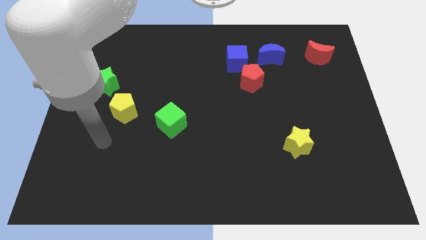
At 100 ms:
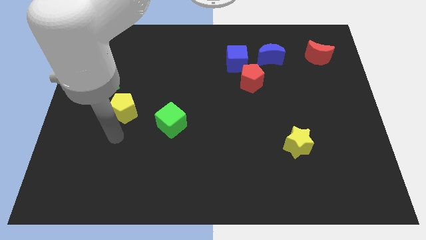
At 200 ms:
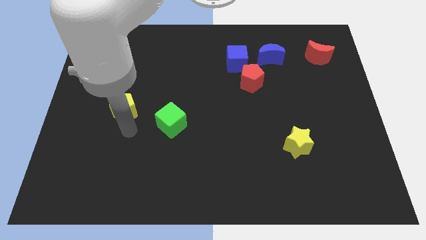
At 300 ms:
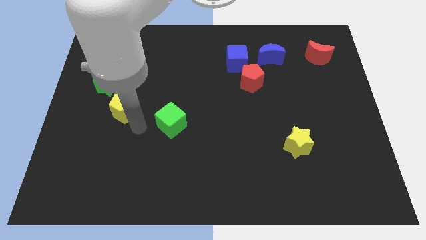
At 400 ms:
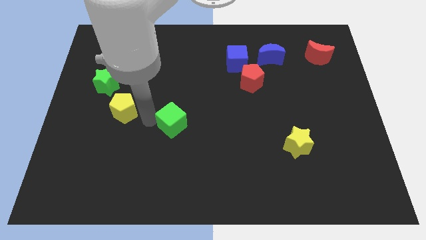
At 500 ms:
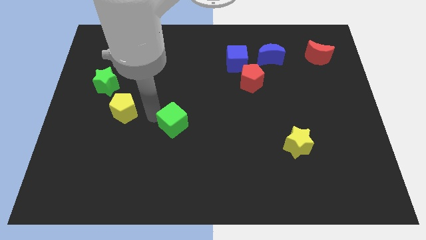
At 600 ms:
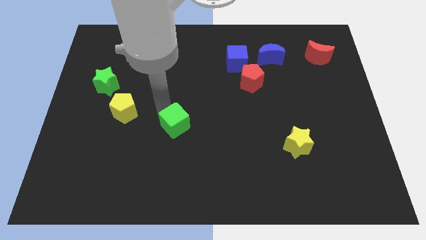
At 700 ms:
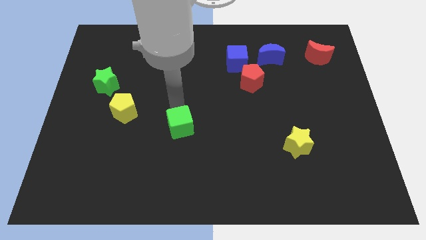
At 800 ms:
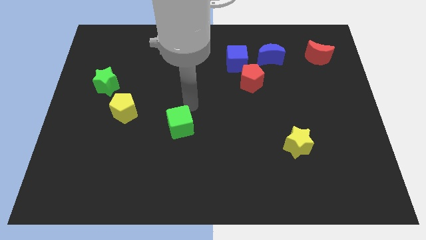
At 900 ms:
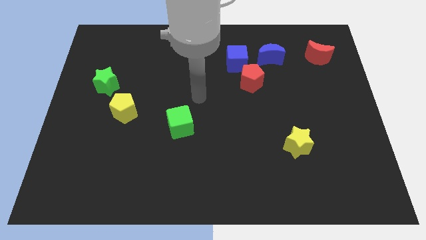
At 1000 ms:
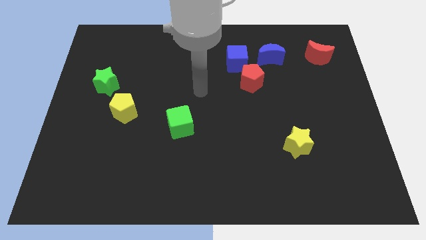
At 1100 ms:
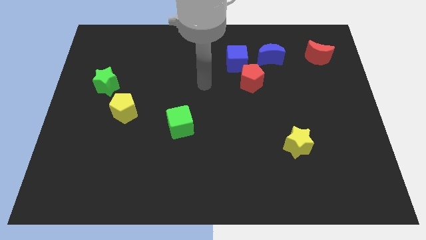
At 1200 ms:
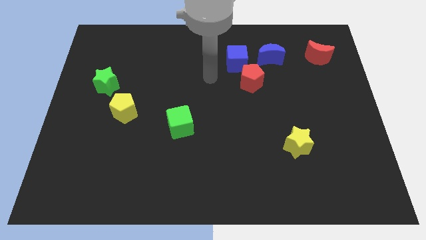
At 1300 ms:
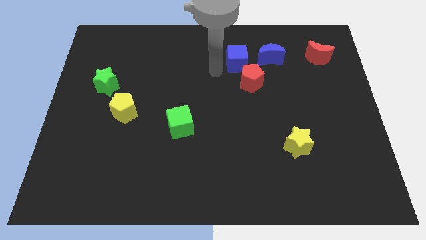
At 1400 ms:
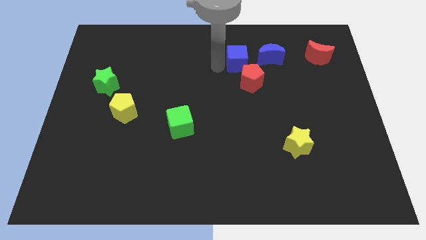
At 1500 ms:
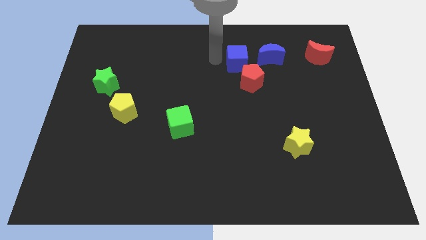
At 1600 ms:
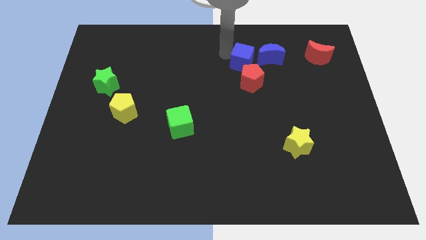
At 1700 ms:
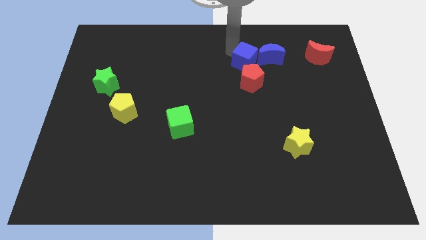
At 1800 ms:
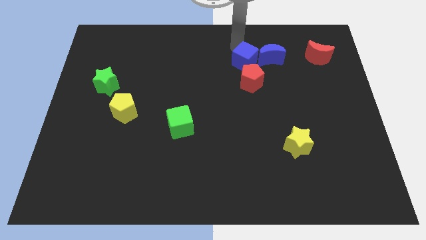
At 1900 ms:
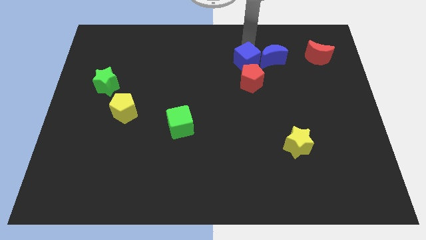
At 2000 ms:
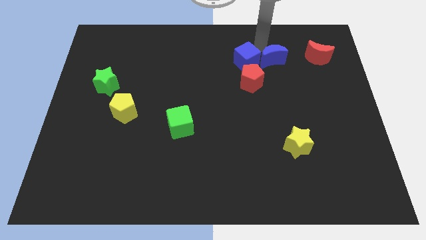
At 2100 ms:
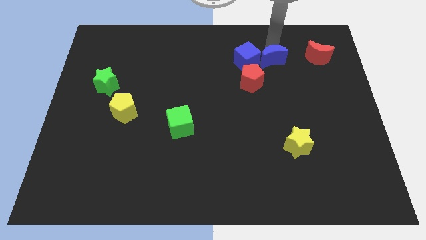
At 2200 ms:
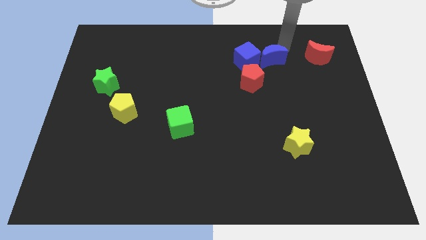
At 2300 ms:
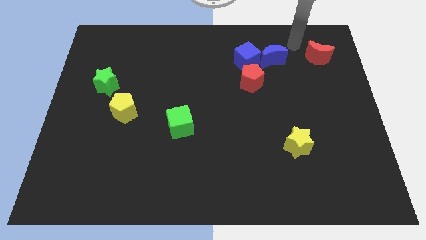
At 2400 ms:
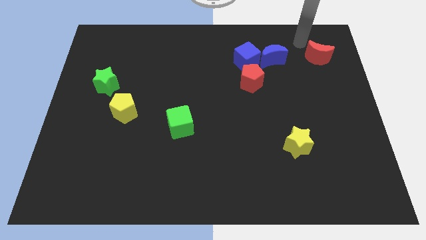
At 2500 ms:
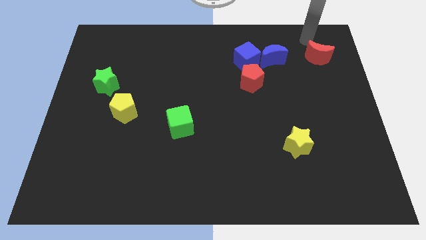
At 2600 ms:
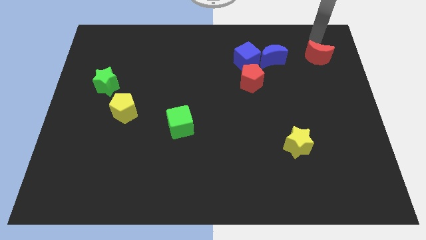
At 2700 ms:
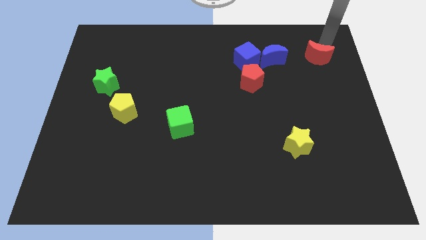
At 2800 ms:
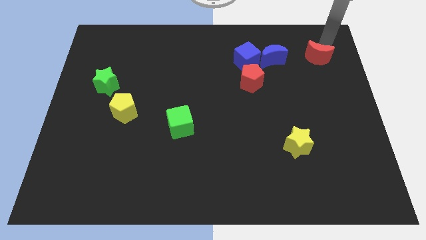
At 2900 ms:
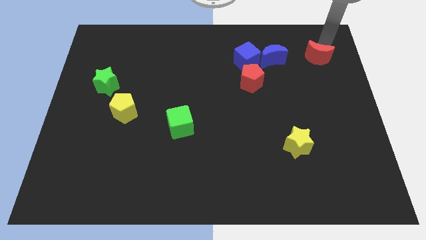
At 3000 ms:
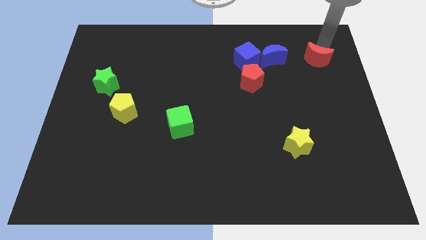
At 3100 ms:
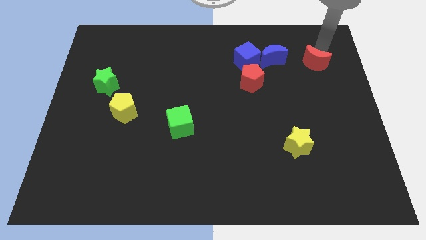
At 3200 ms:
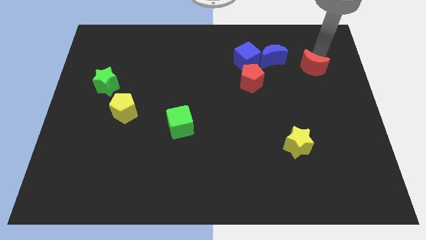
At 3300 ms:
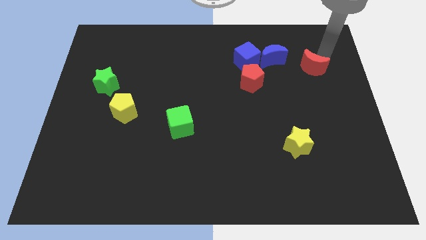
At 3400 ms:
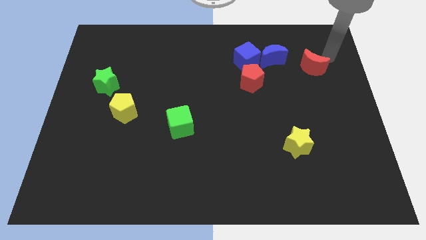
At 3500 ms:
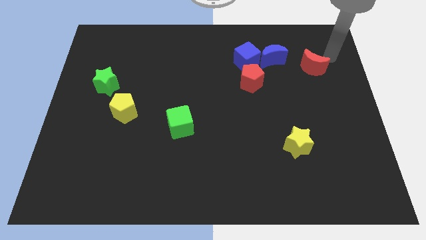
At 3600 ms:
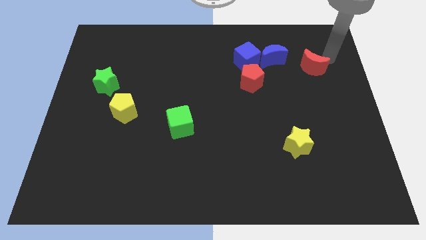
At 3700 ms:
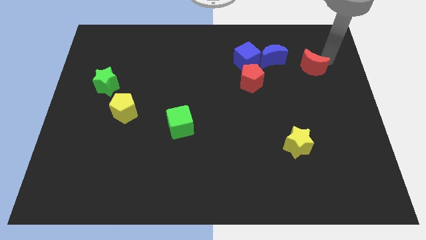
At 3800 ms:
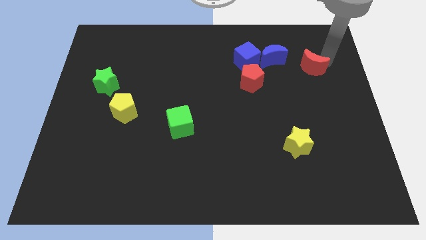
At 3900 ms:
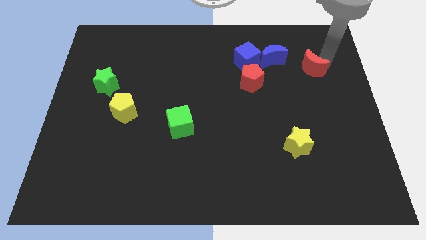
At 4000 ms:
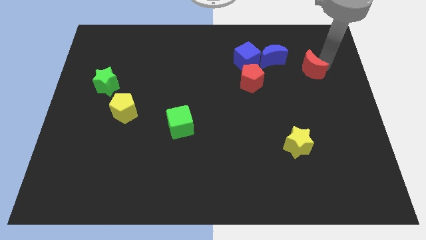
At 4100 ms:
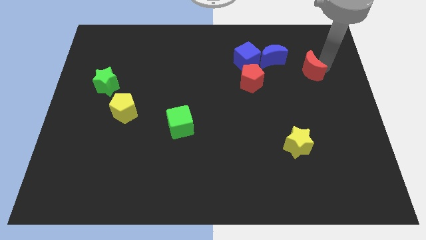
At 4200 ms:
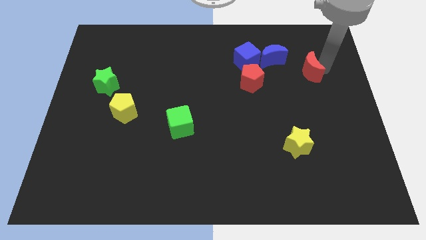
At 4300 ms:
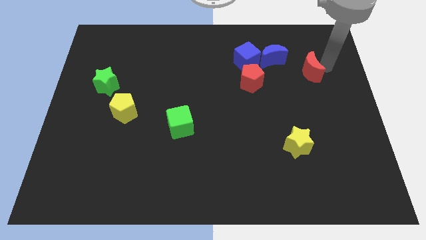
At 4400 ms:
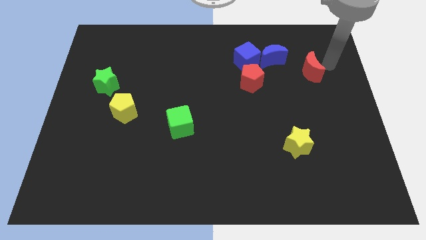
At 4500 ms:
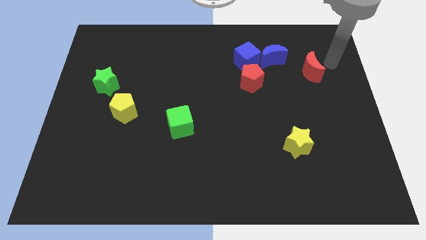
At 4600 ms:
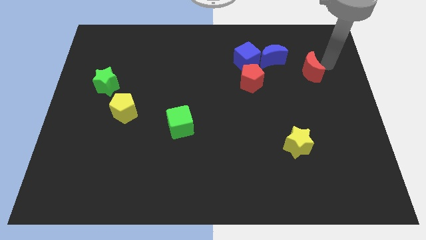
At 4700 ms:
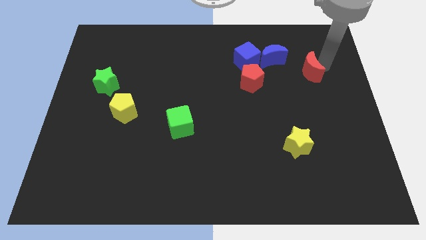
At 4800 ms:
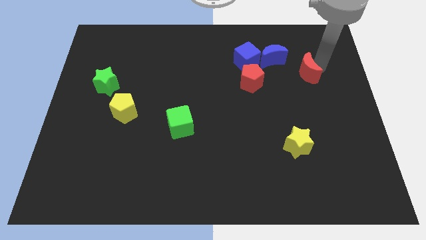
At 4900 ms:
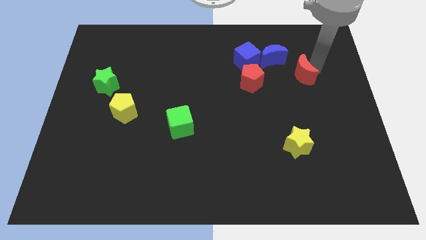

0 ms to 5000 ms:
push the red moon downwards and left diagonally a little bit

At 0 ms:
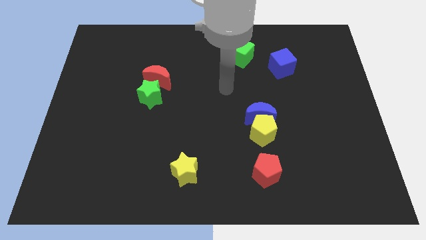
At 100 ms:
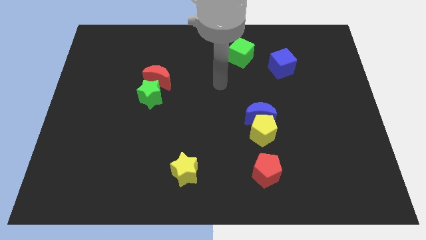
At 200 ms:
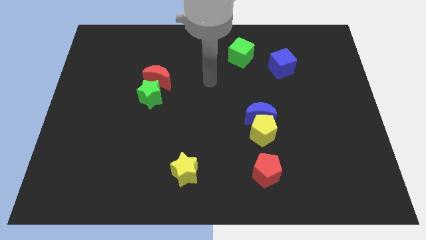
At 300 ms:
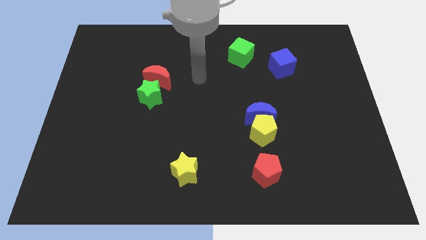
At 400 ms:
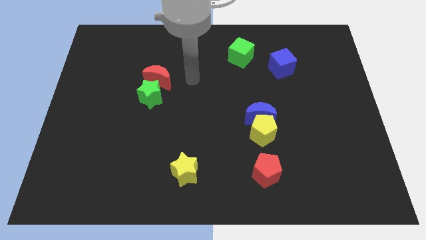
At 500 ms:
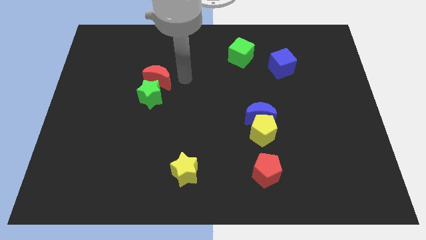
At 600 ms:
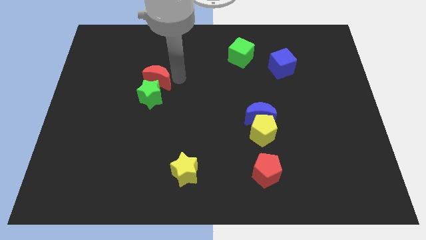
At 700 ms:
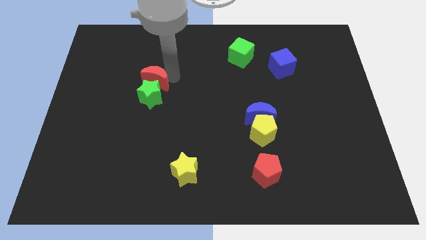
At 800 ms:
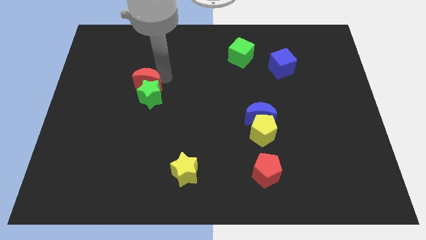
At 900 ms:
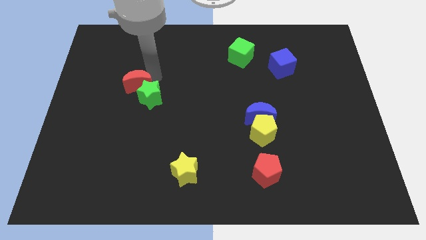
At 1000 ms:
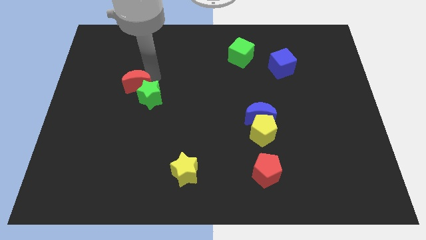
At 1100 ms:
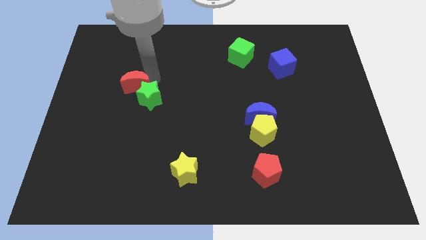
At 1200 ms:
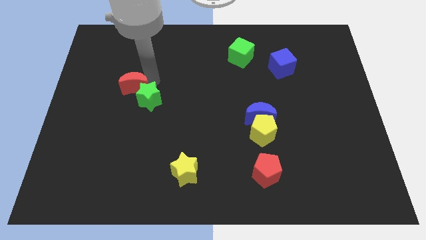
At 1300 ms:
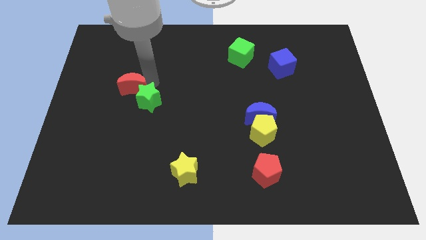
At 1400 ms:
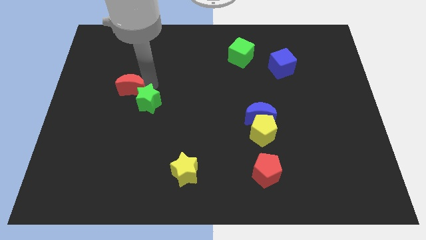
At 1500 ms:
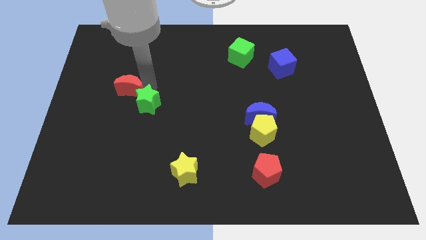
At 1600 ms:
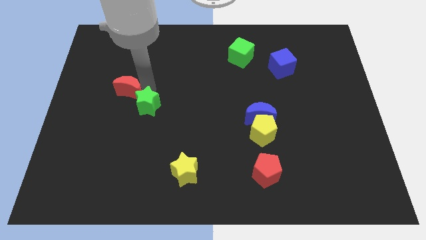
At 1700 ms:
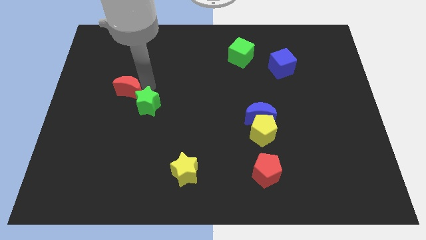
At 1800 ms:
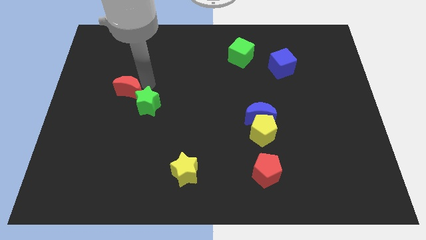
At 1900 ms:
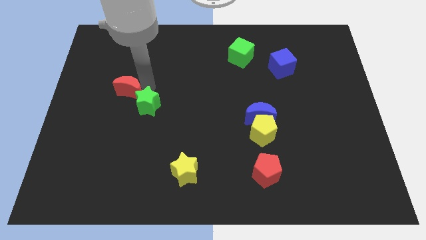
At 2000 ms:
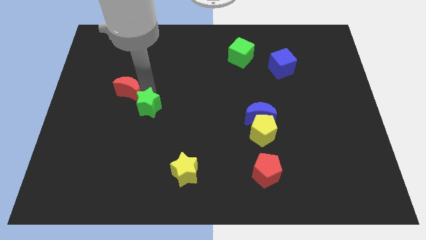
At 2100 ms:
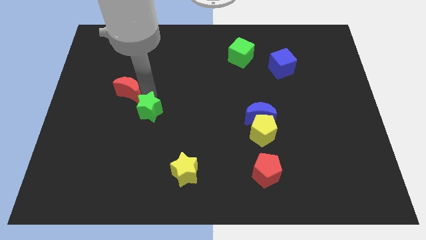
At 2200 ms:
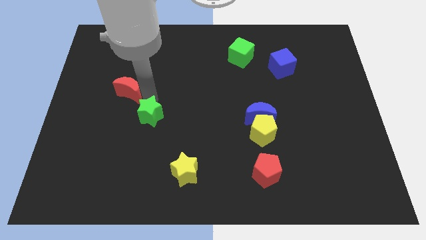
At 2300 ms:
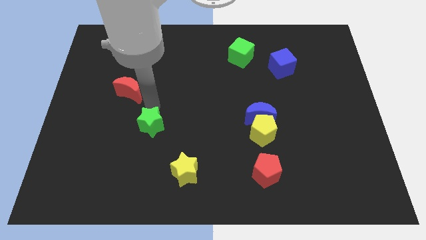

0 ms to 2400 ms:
move the green star a little bit downwards

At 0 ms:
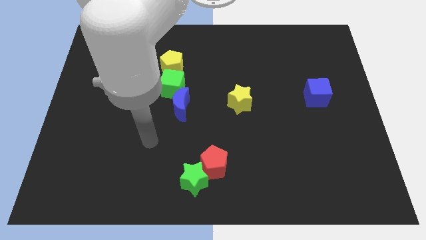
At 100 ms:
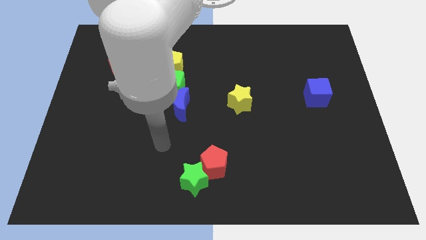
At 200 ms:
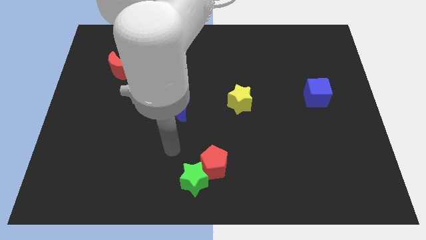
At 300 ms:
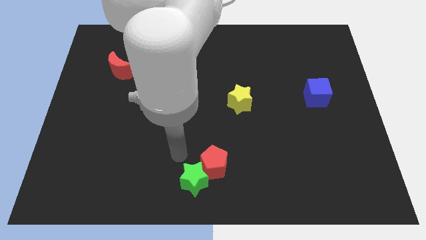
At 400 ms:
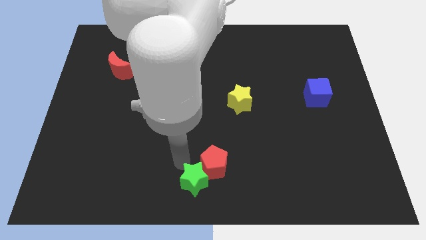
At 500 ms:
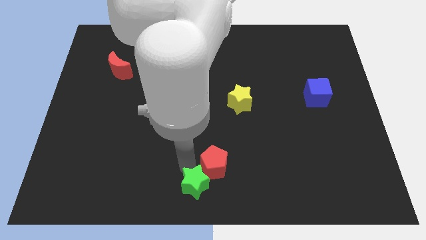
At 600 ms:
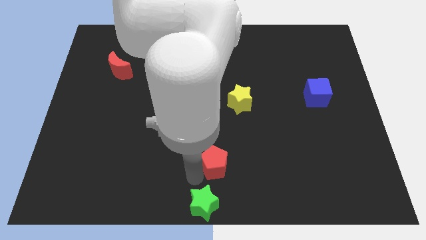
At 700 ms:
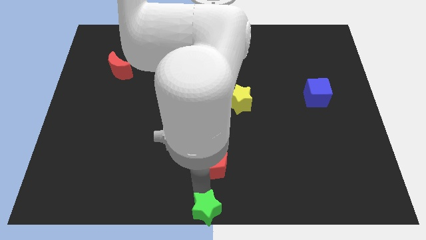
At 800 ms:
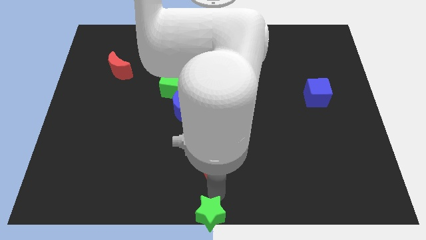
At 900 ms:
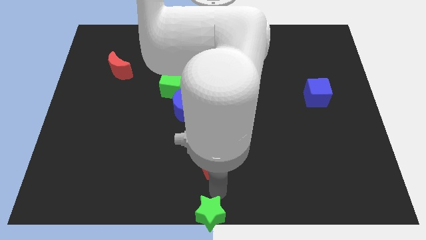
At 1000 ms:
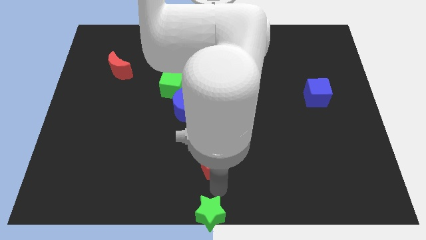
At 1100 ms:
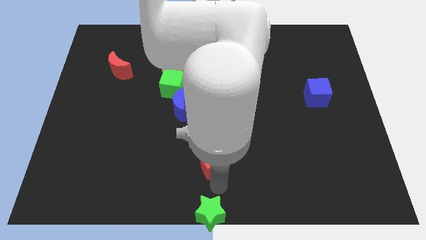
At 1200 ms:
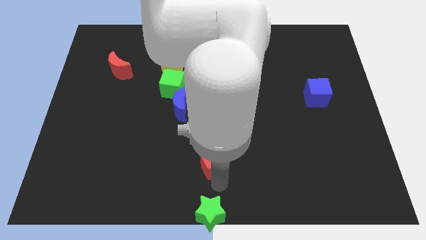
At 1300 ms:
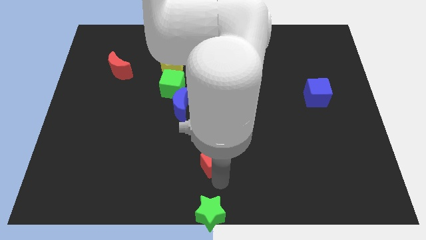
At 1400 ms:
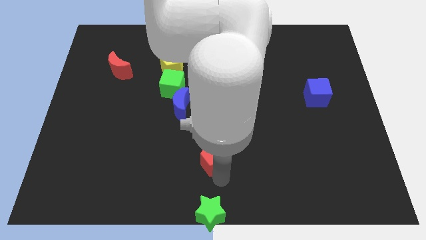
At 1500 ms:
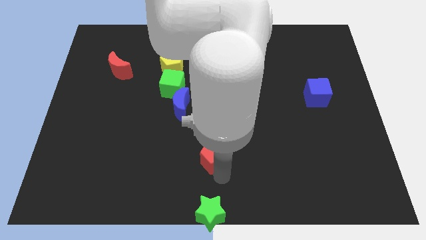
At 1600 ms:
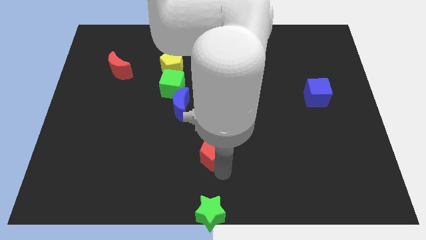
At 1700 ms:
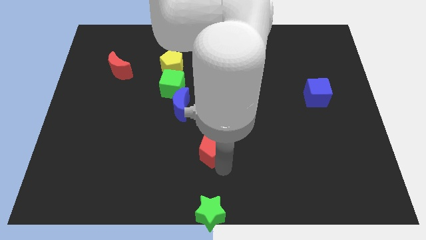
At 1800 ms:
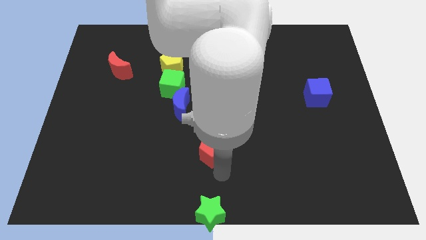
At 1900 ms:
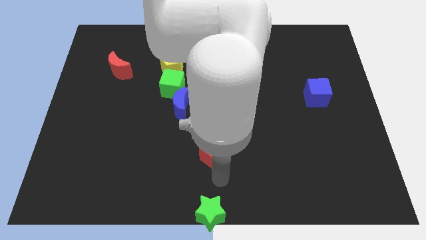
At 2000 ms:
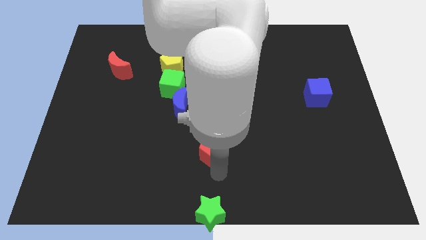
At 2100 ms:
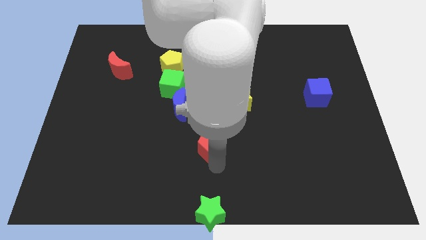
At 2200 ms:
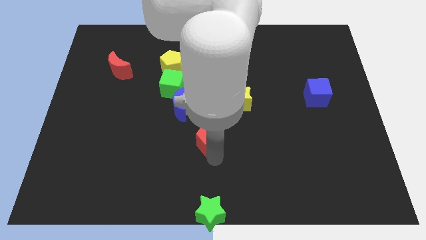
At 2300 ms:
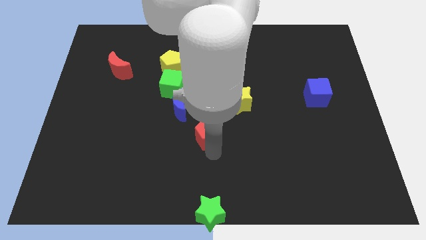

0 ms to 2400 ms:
slightly slide the red pentagon upwards
